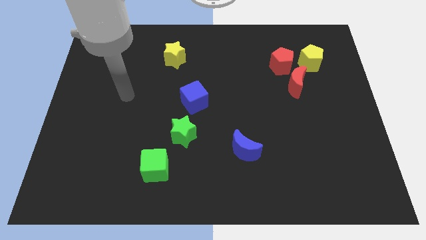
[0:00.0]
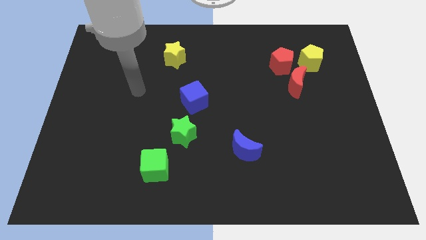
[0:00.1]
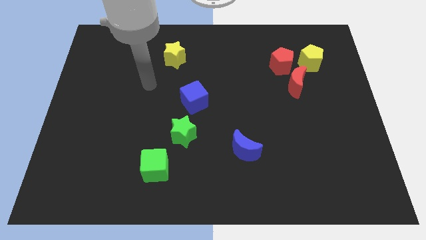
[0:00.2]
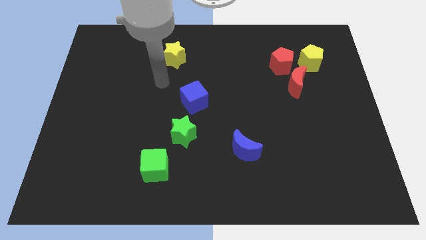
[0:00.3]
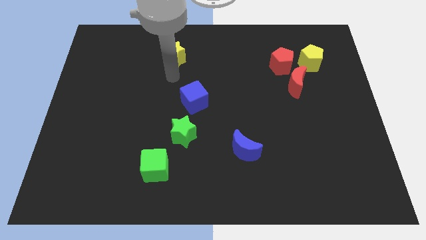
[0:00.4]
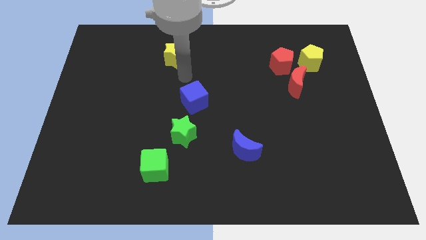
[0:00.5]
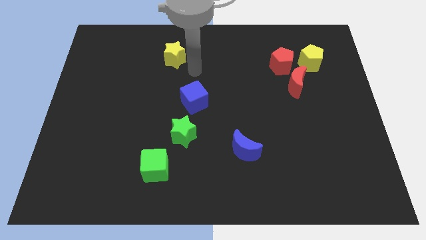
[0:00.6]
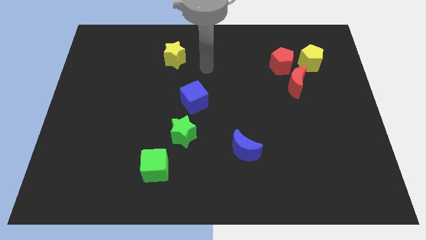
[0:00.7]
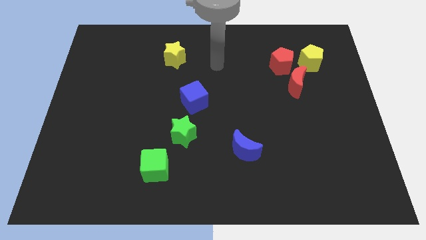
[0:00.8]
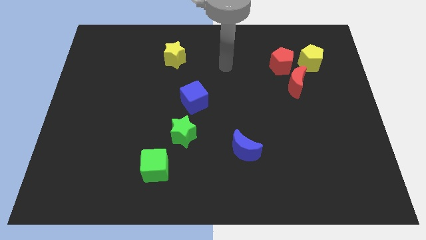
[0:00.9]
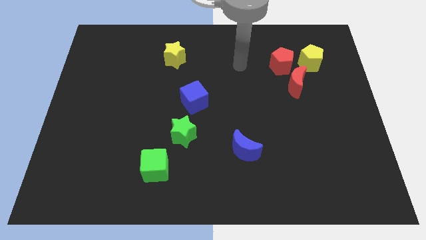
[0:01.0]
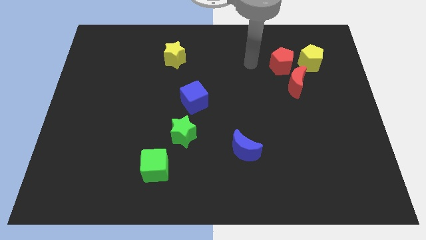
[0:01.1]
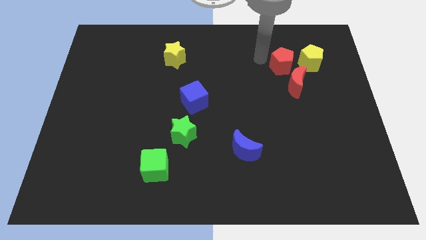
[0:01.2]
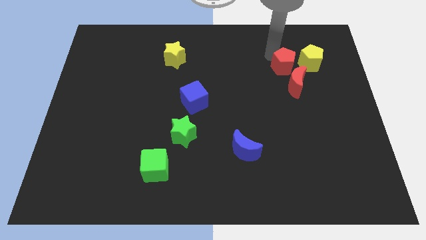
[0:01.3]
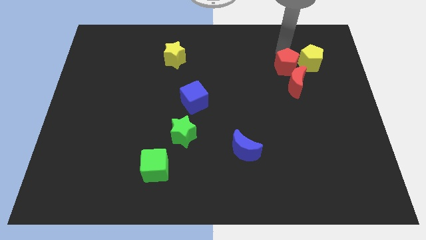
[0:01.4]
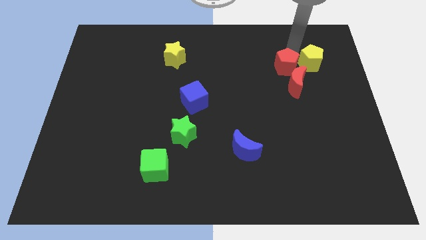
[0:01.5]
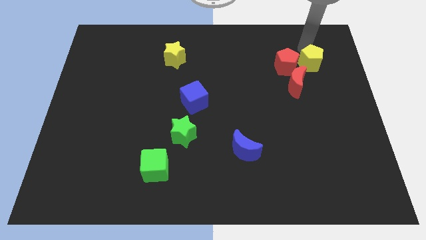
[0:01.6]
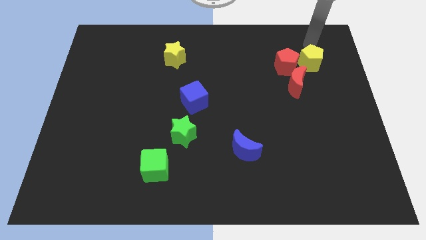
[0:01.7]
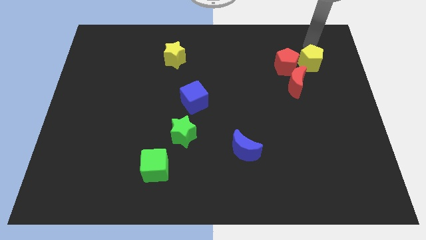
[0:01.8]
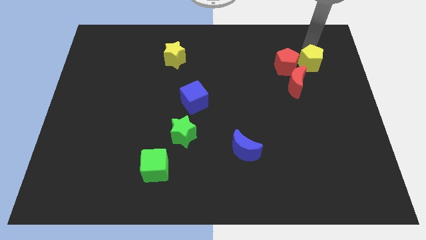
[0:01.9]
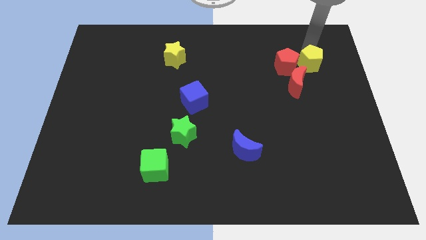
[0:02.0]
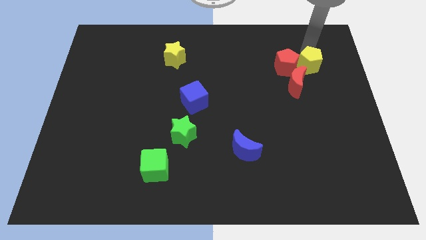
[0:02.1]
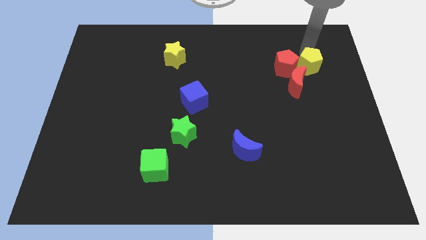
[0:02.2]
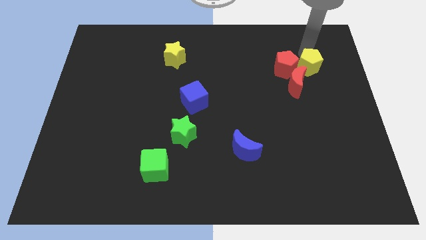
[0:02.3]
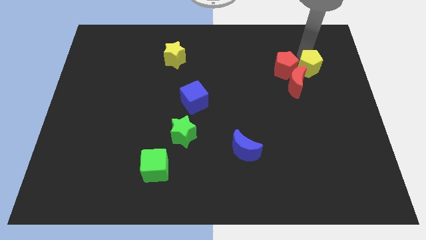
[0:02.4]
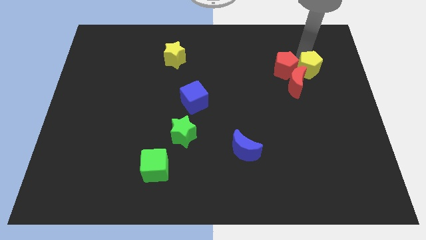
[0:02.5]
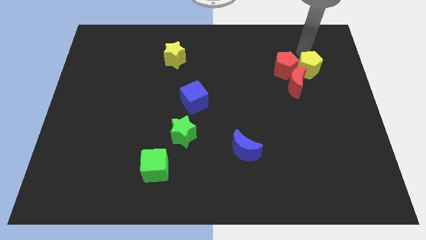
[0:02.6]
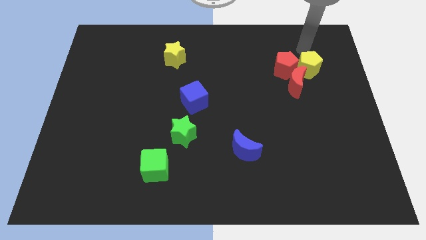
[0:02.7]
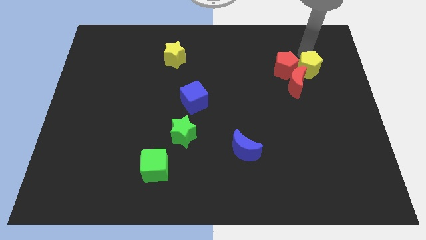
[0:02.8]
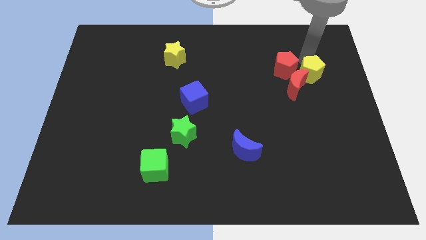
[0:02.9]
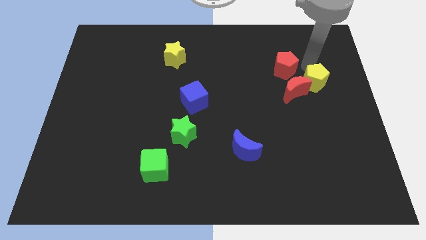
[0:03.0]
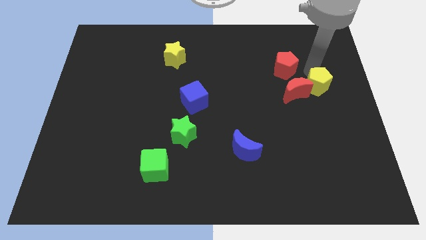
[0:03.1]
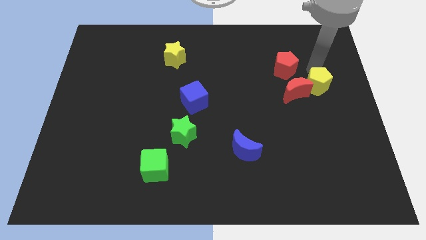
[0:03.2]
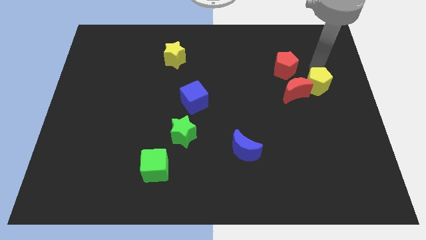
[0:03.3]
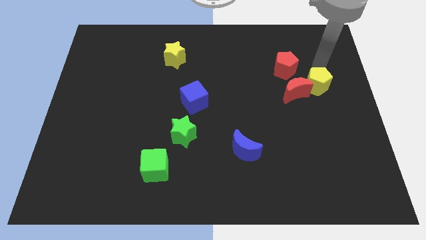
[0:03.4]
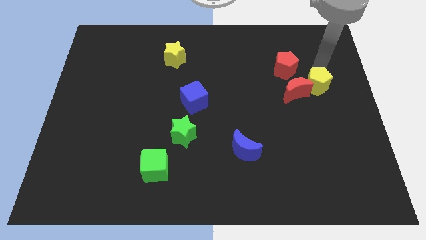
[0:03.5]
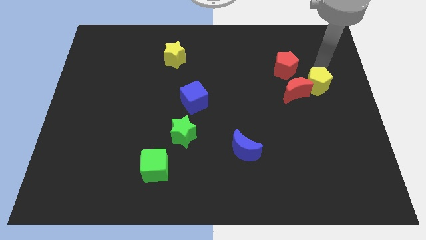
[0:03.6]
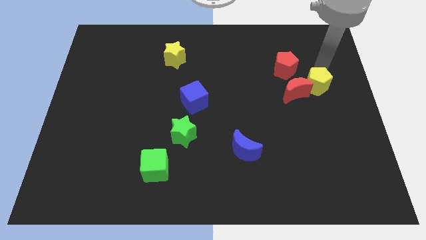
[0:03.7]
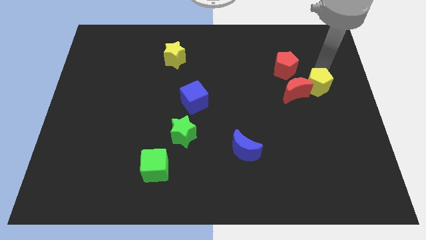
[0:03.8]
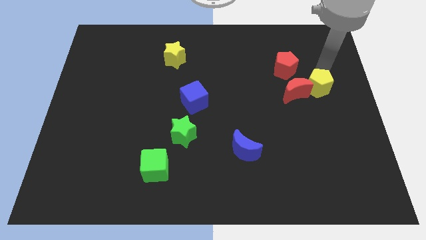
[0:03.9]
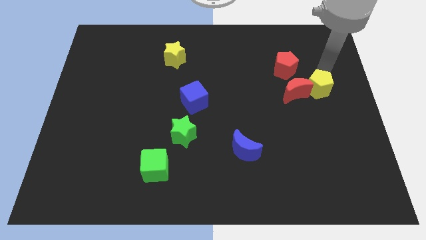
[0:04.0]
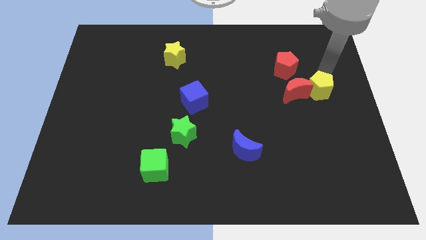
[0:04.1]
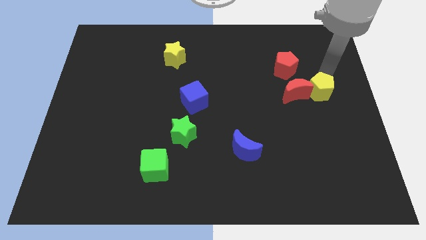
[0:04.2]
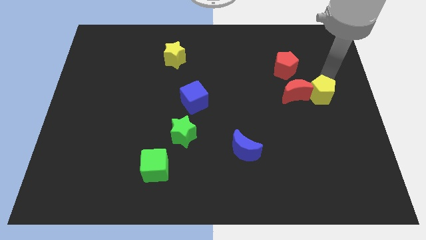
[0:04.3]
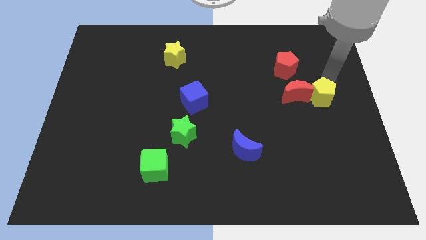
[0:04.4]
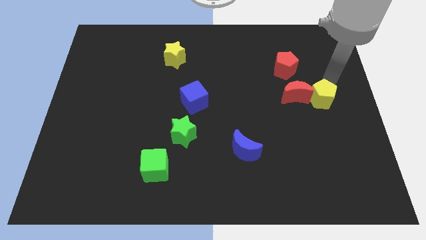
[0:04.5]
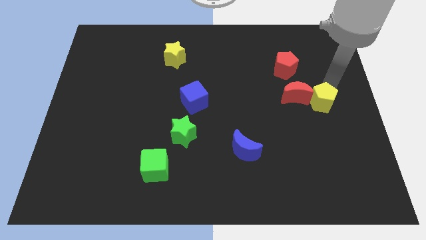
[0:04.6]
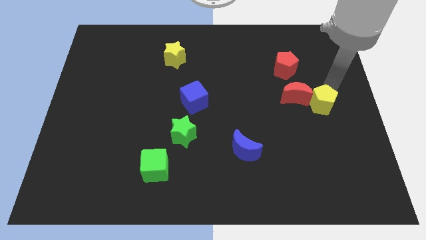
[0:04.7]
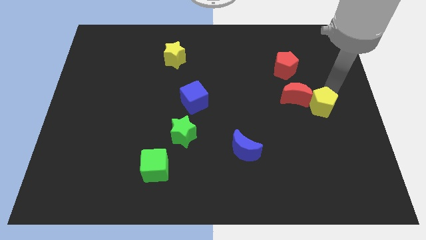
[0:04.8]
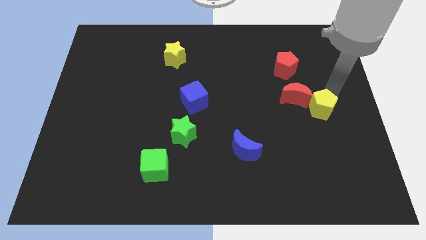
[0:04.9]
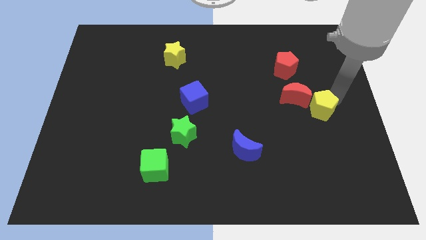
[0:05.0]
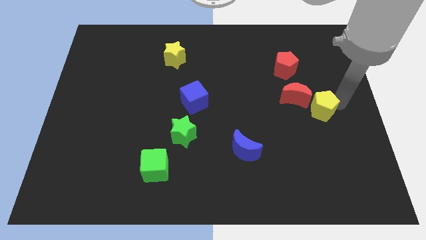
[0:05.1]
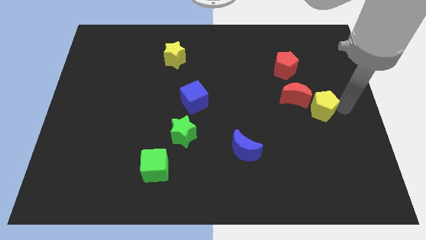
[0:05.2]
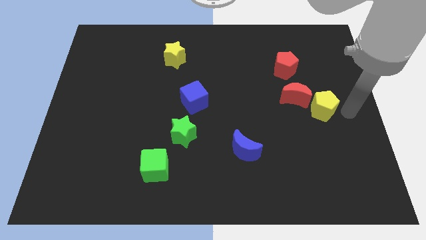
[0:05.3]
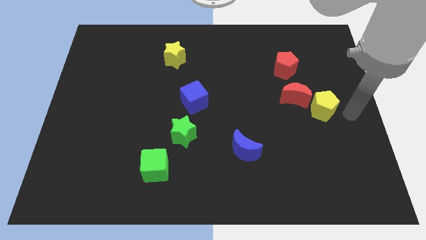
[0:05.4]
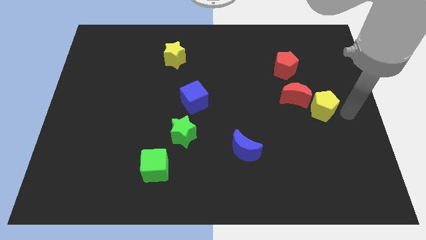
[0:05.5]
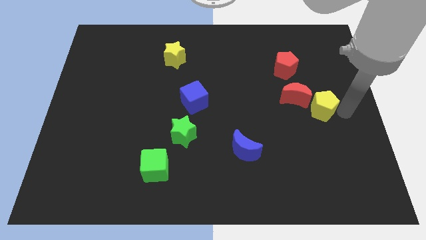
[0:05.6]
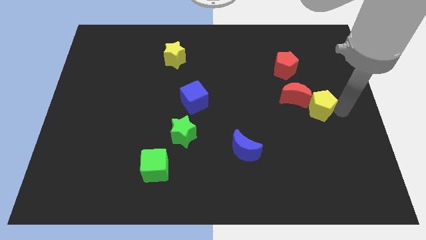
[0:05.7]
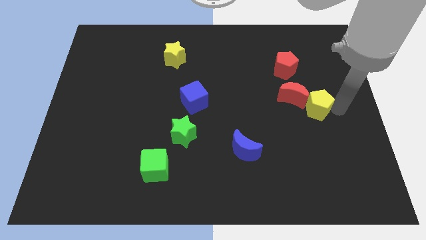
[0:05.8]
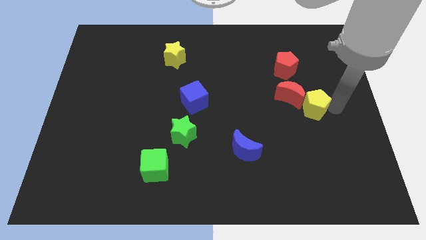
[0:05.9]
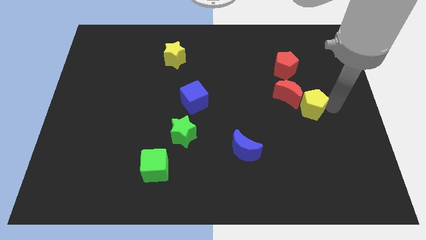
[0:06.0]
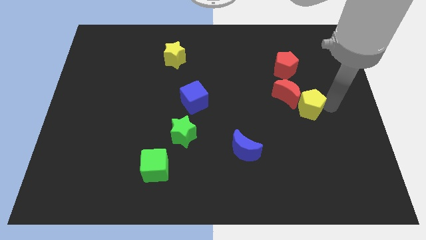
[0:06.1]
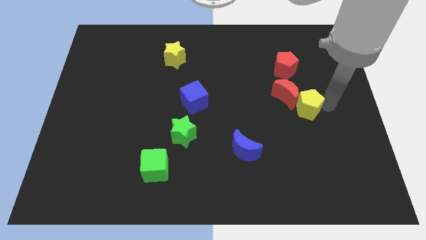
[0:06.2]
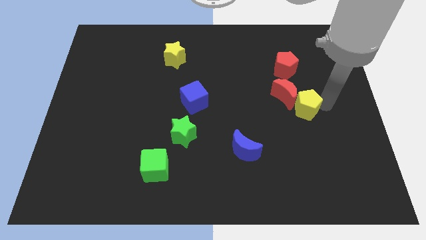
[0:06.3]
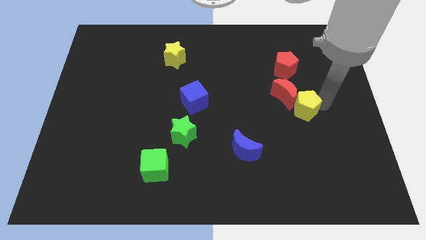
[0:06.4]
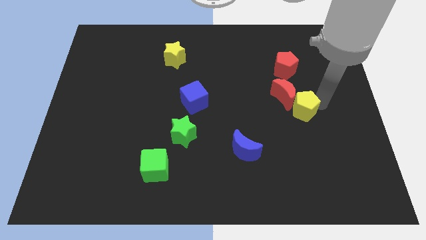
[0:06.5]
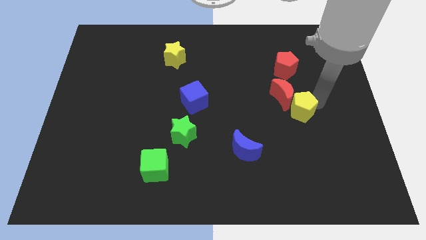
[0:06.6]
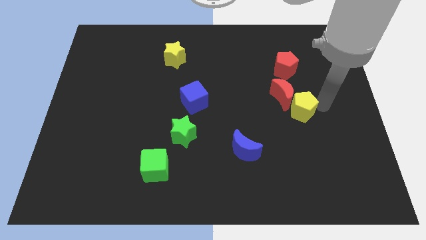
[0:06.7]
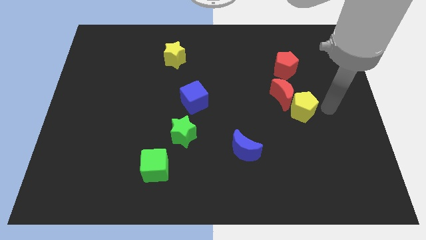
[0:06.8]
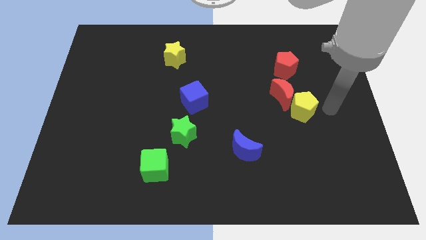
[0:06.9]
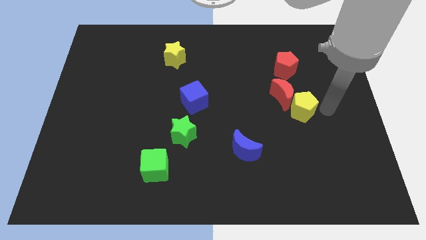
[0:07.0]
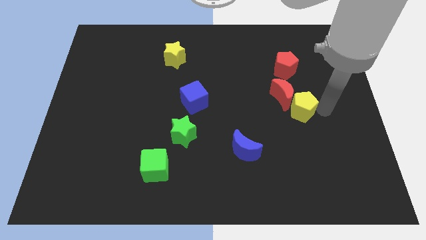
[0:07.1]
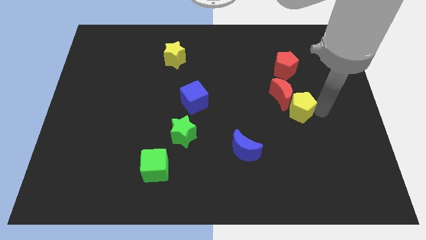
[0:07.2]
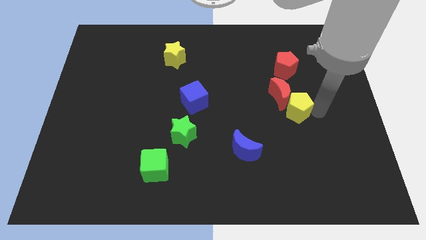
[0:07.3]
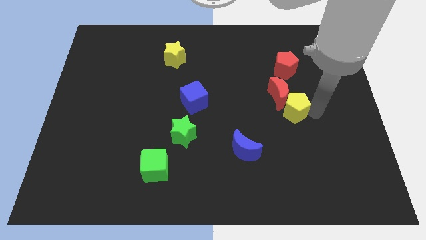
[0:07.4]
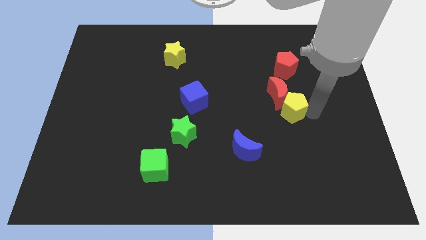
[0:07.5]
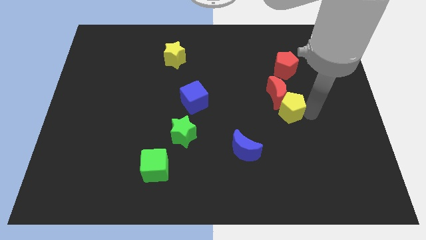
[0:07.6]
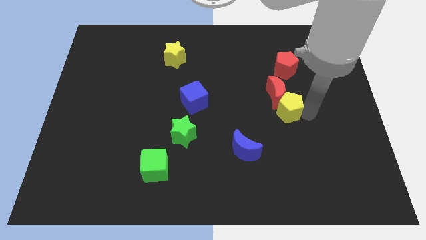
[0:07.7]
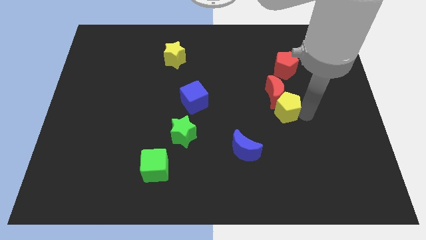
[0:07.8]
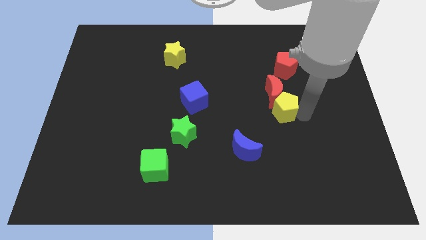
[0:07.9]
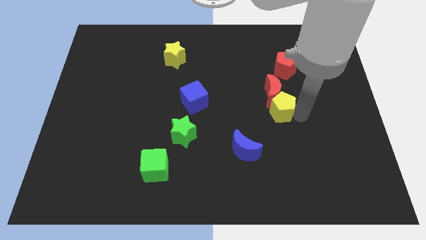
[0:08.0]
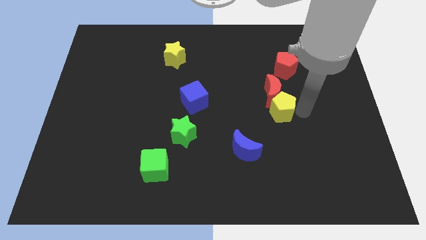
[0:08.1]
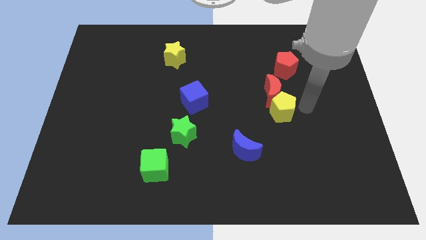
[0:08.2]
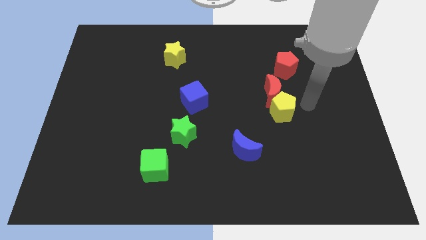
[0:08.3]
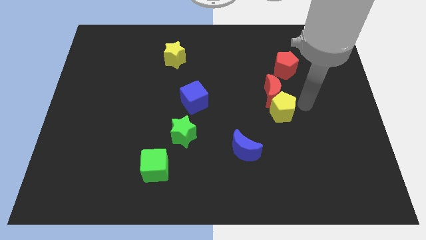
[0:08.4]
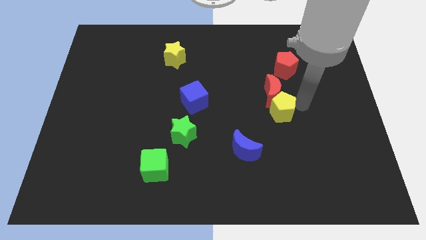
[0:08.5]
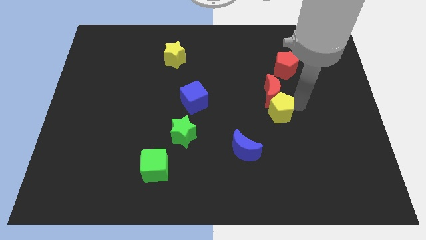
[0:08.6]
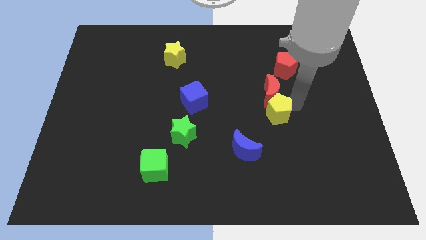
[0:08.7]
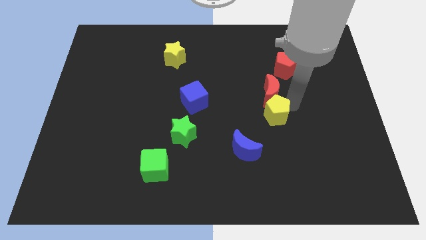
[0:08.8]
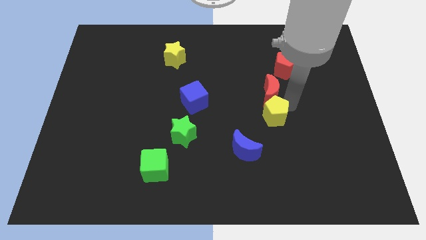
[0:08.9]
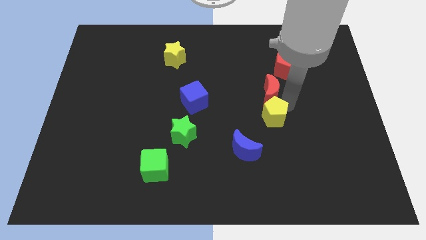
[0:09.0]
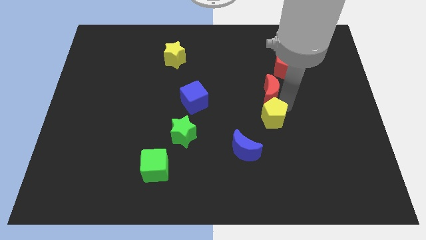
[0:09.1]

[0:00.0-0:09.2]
move the yellow pentagon downwards and then to the left
